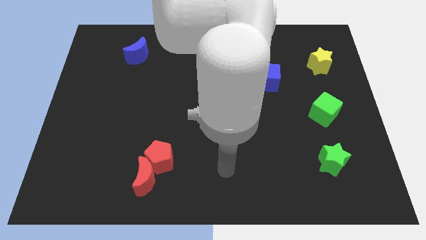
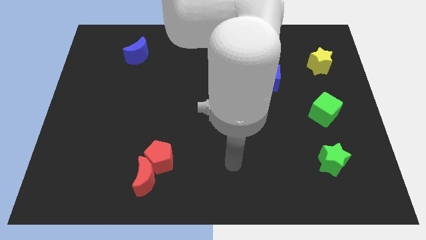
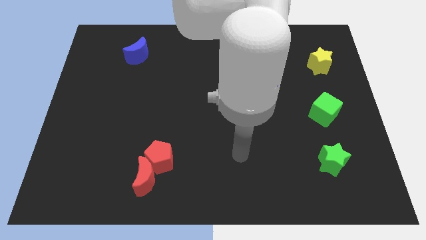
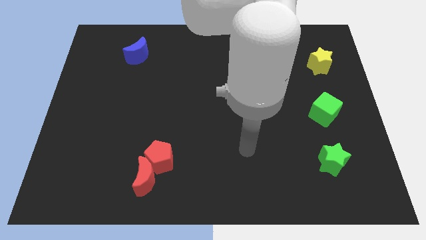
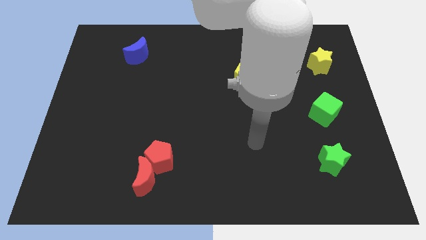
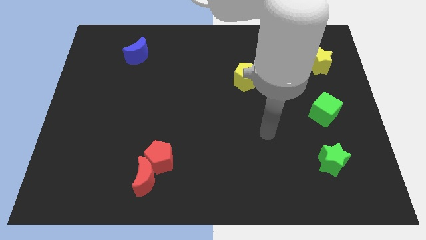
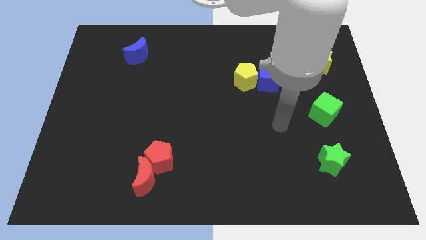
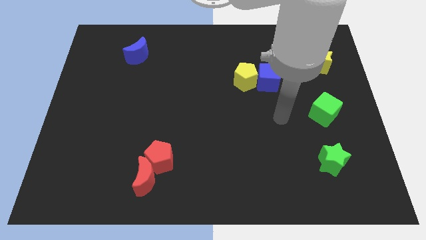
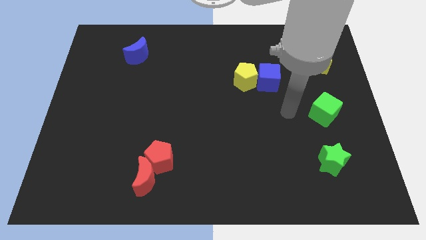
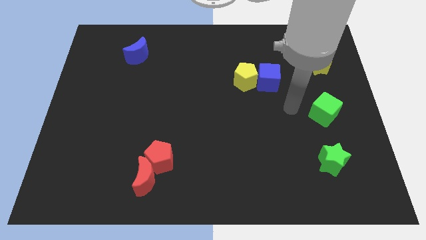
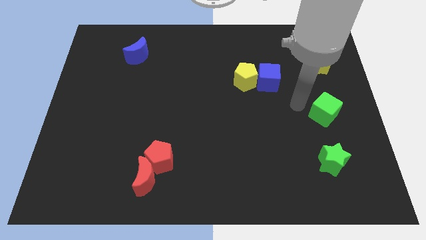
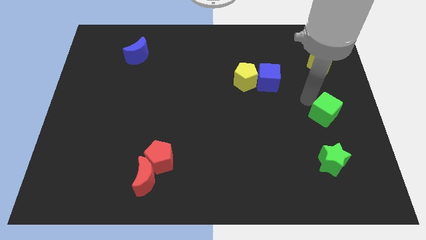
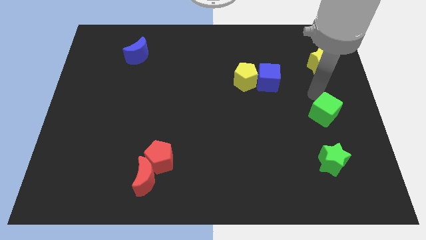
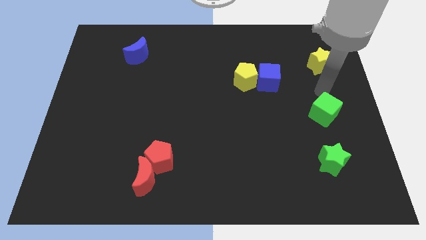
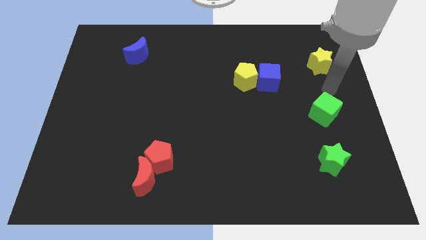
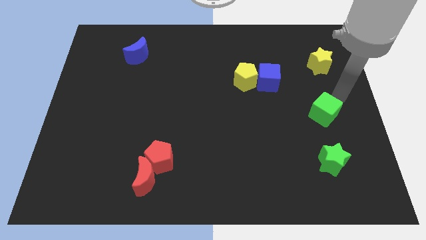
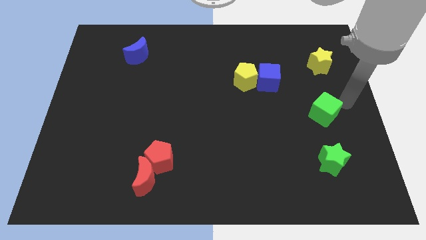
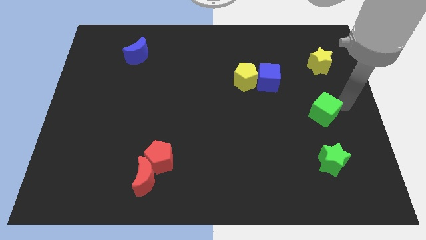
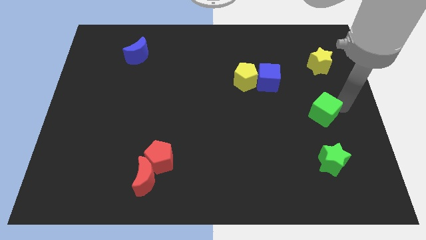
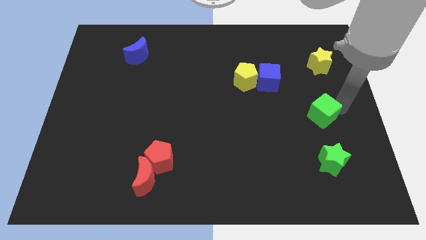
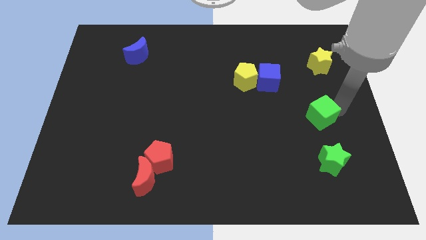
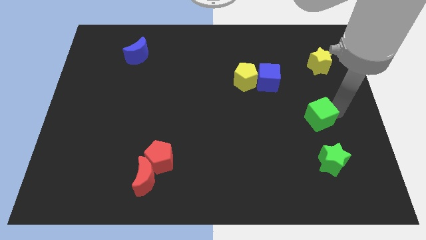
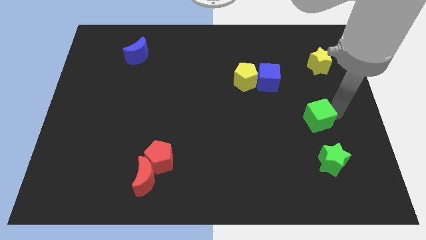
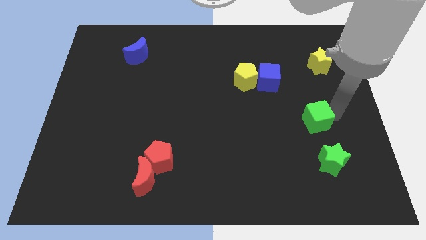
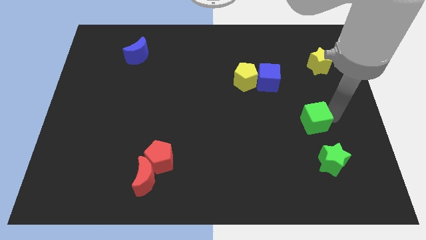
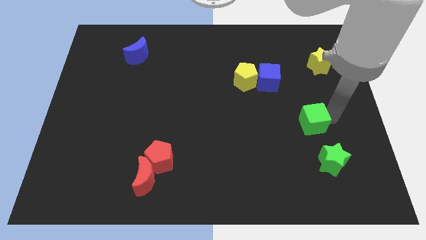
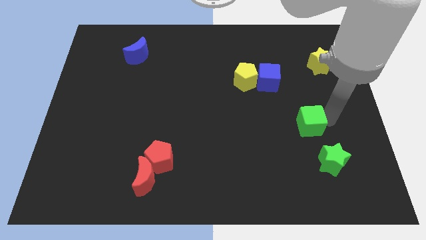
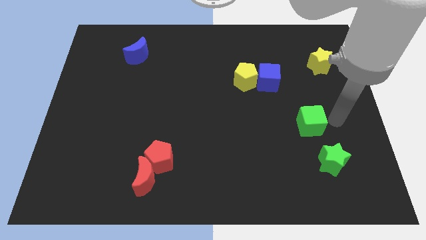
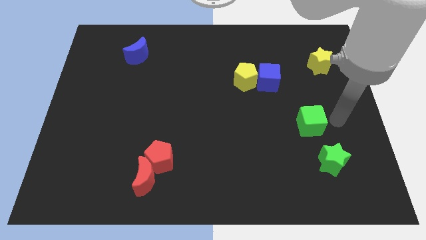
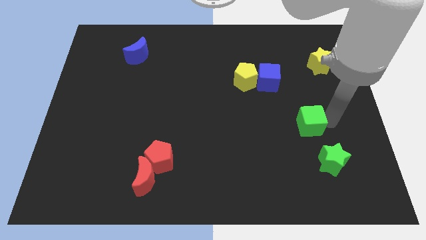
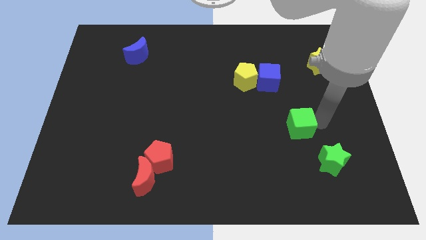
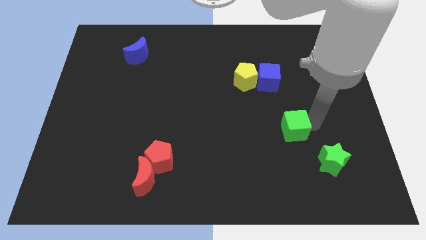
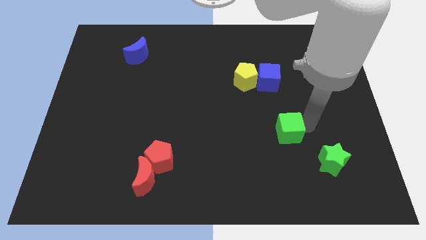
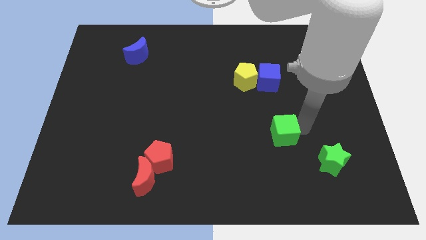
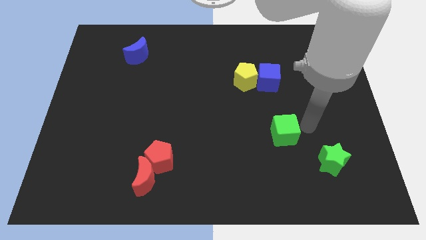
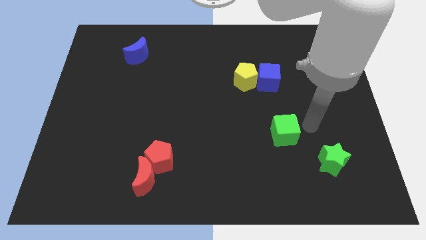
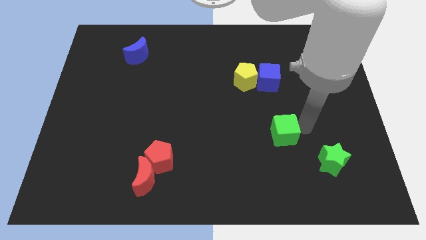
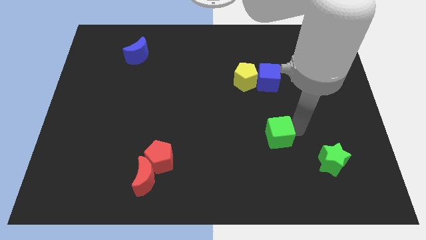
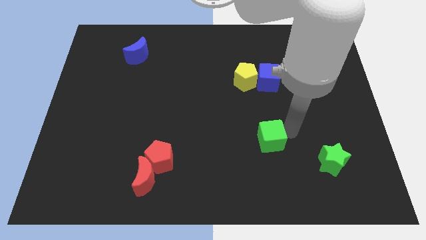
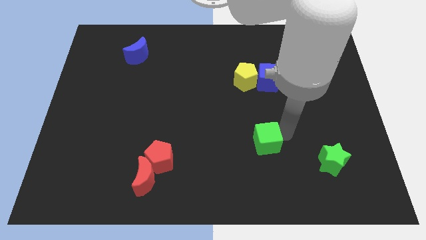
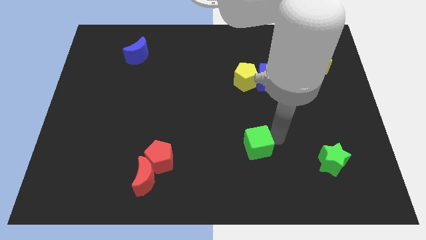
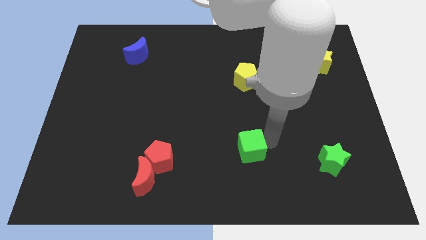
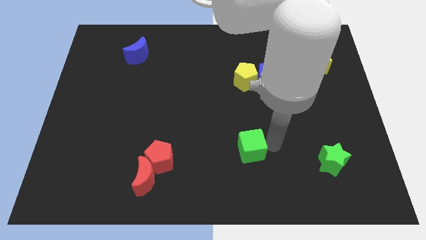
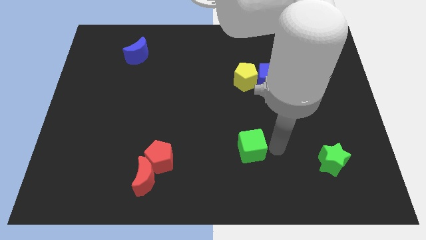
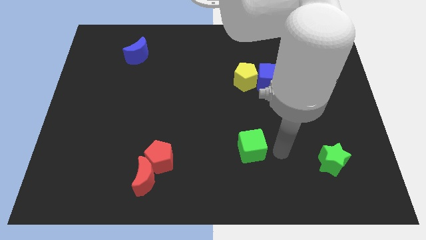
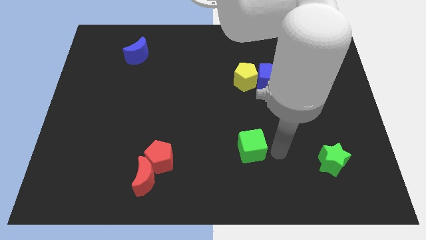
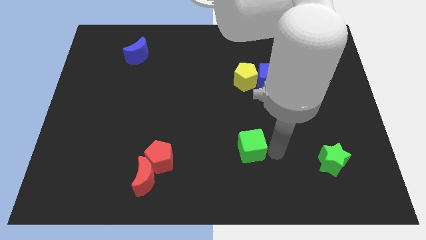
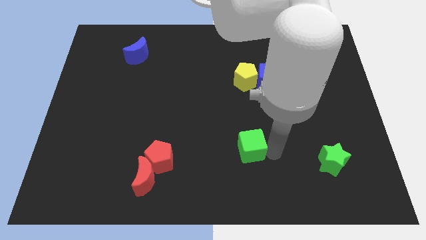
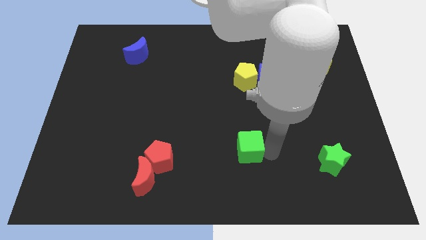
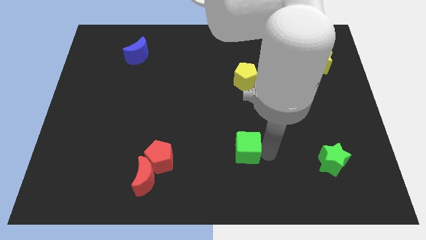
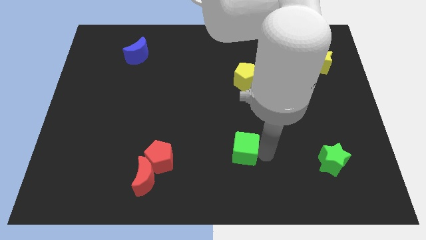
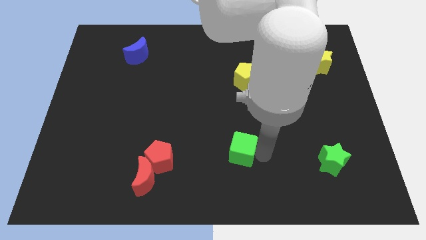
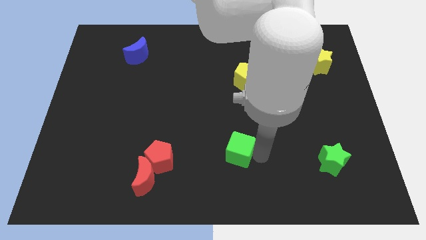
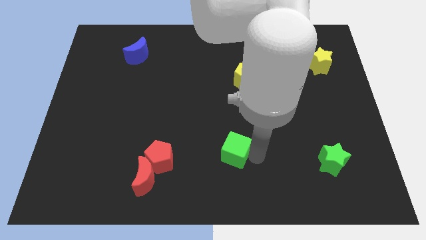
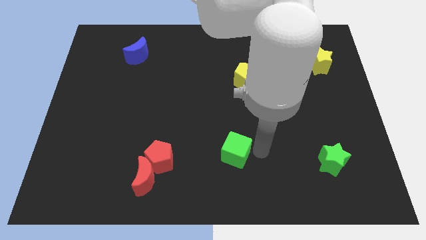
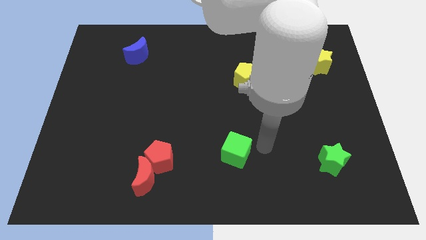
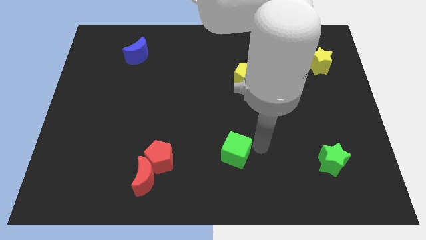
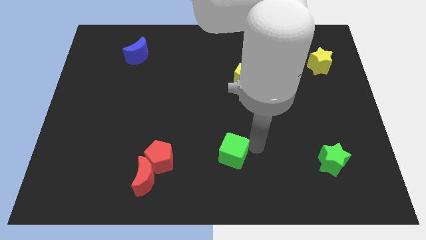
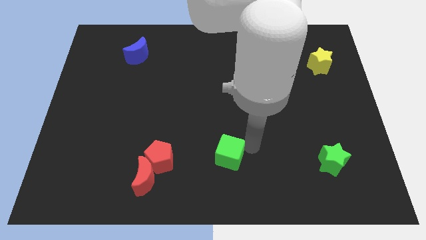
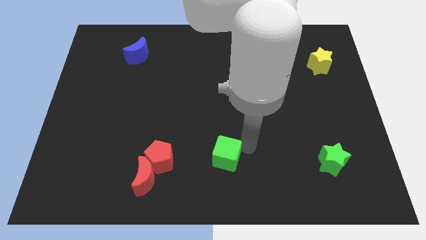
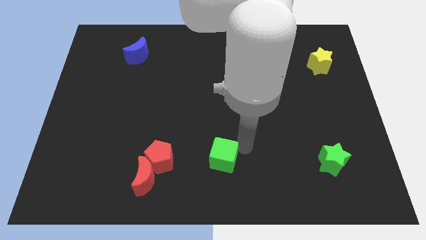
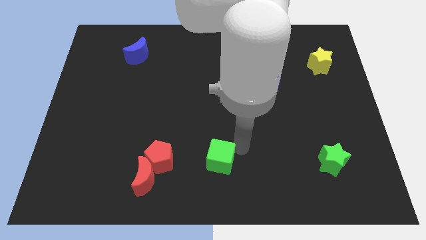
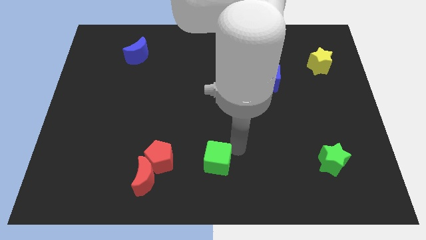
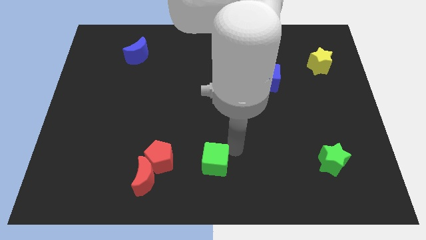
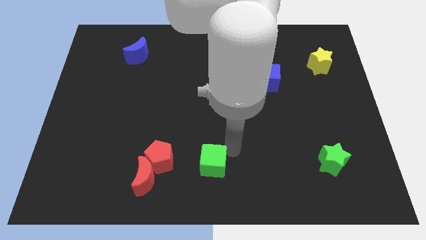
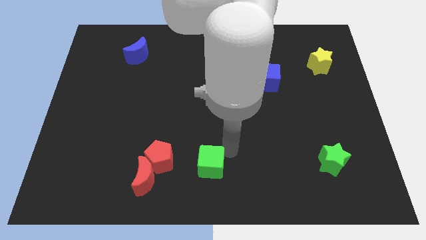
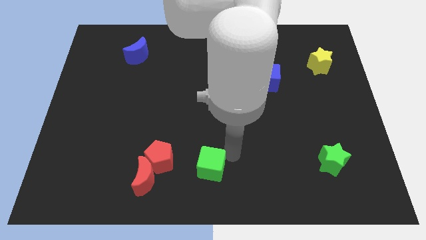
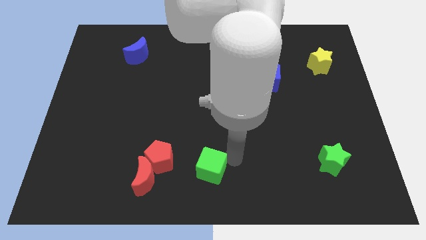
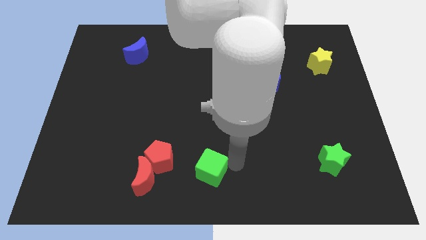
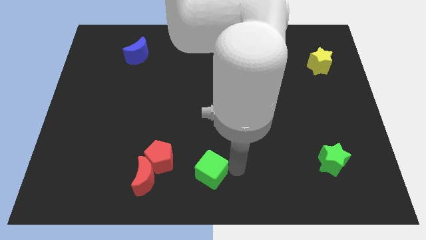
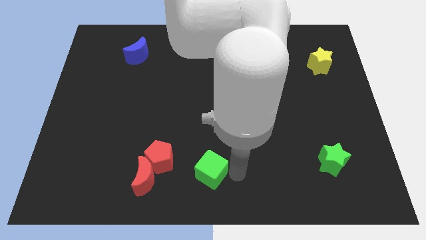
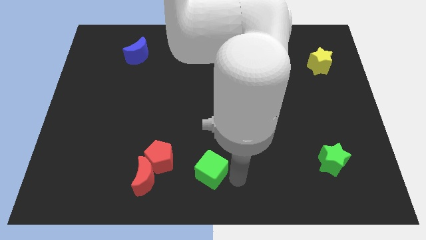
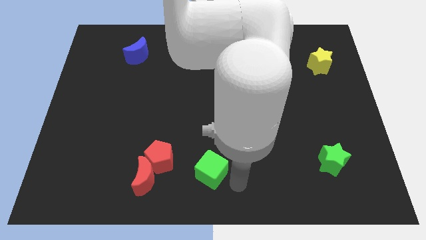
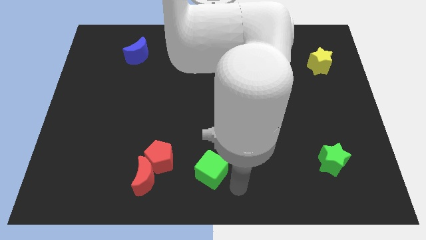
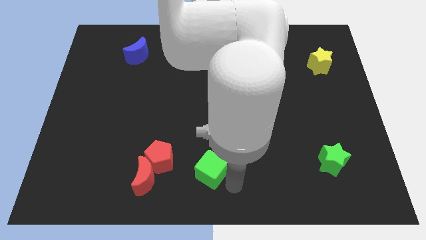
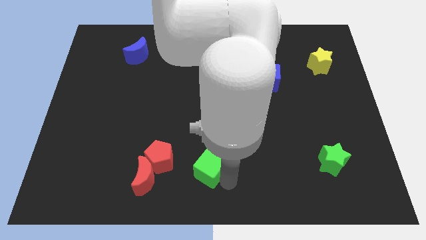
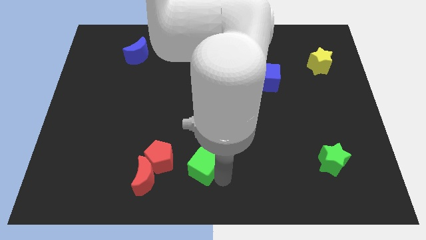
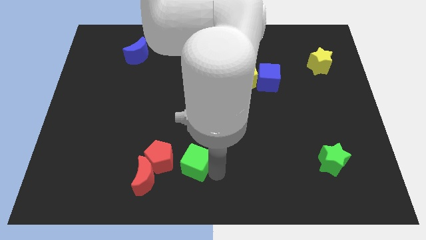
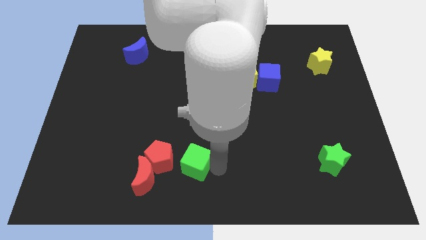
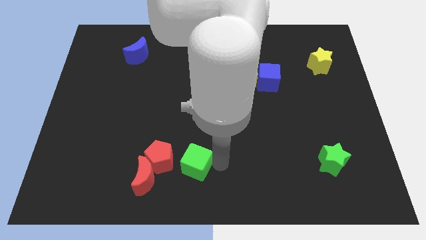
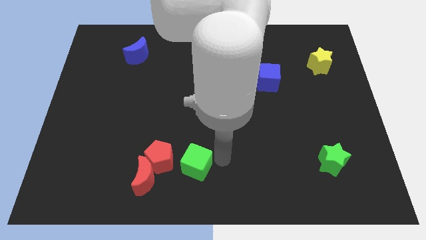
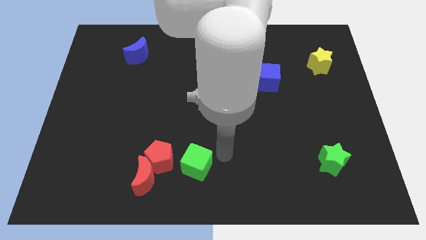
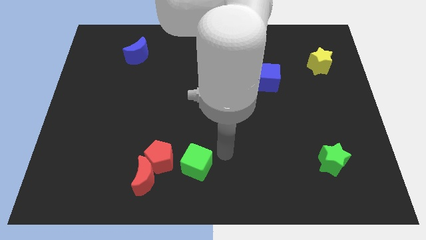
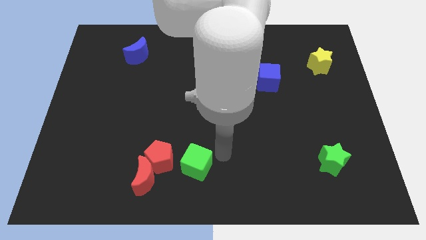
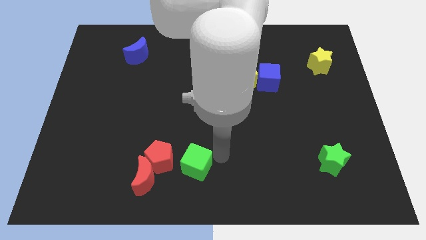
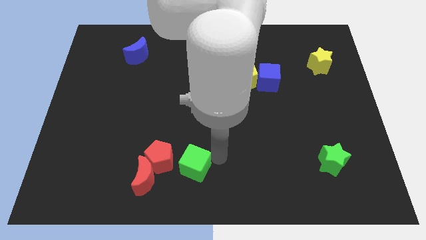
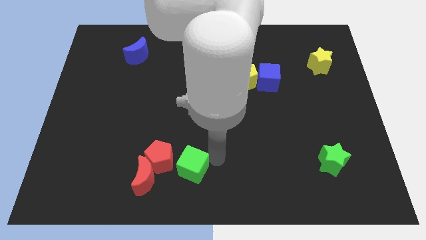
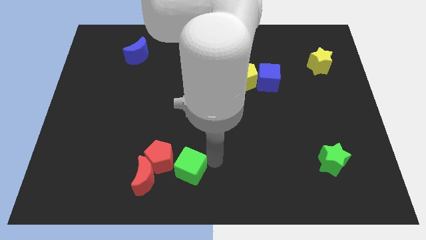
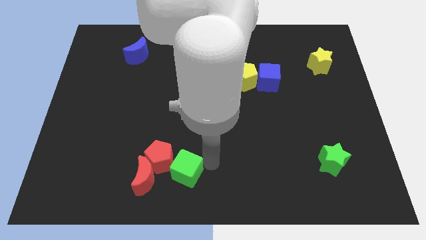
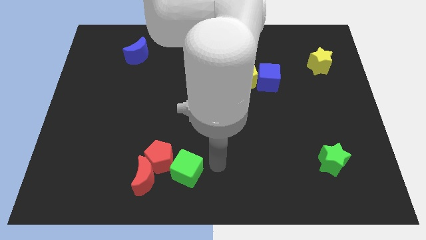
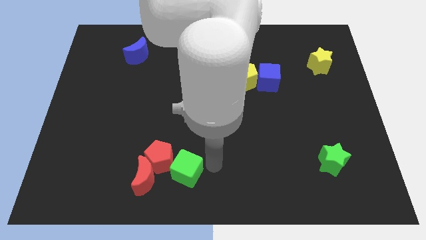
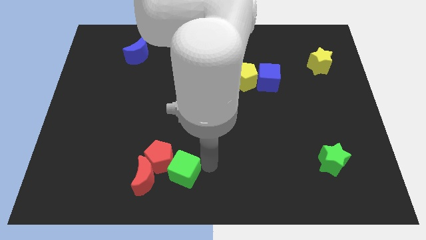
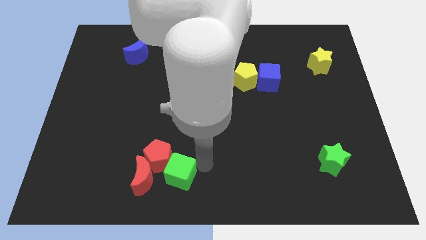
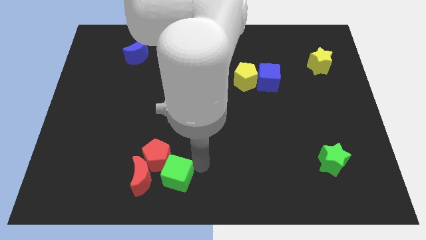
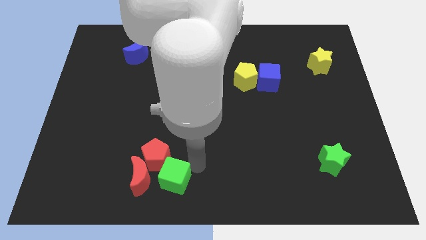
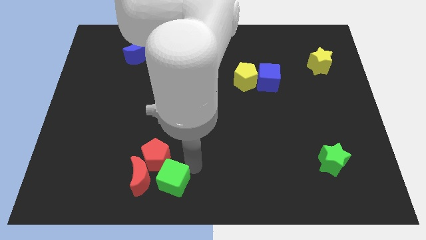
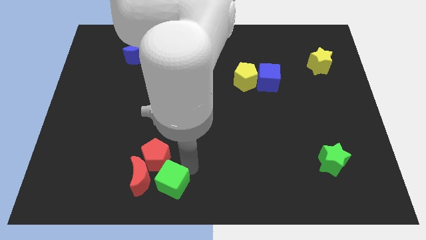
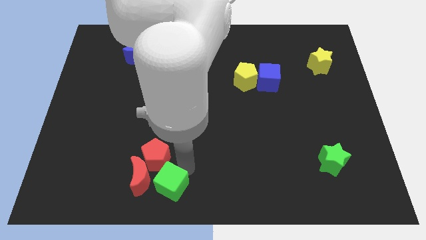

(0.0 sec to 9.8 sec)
put the green cube close to the red moon
